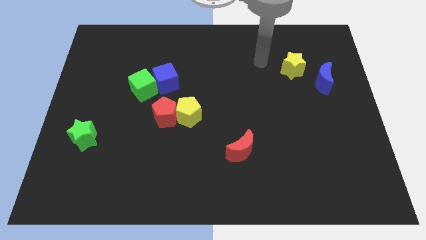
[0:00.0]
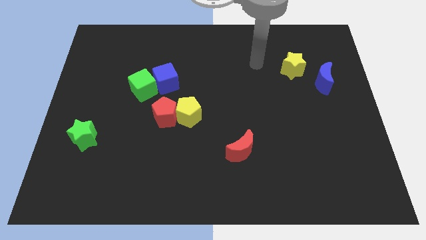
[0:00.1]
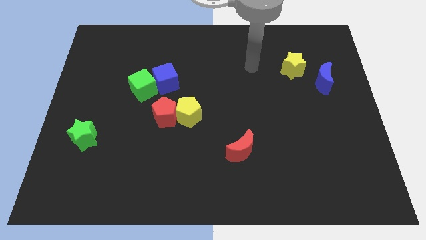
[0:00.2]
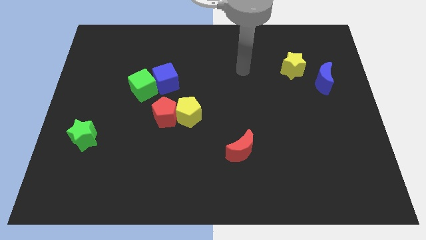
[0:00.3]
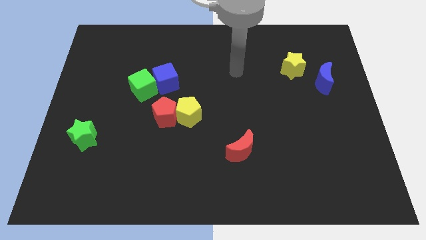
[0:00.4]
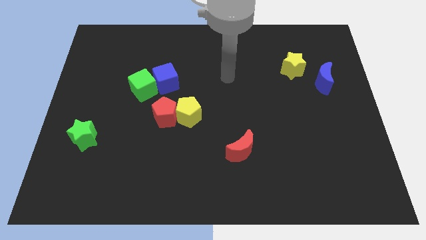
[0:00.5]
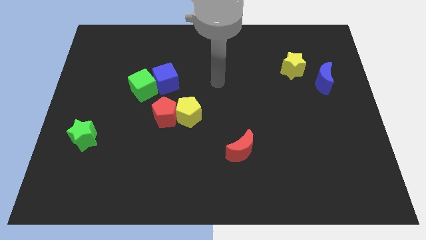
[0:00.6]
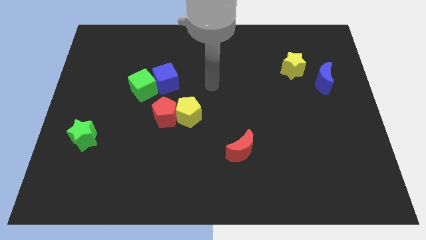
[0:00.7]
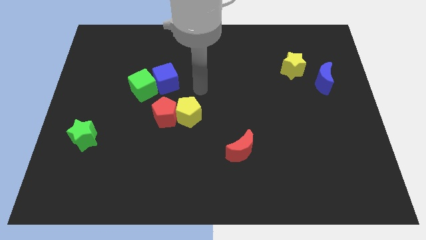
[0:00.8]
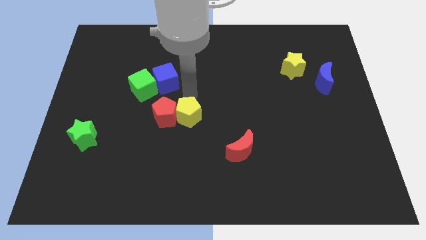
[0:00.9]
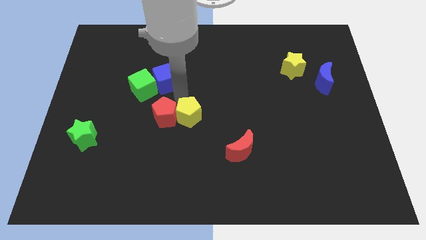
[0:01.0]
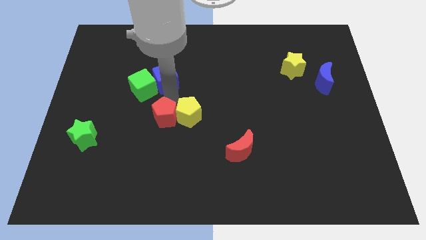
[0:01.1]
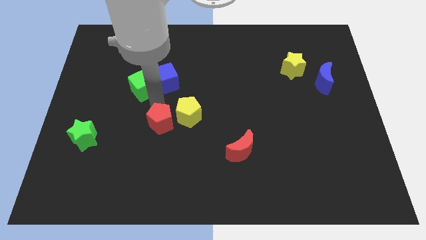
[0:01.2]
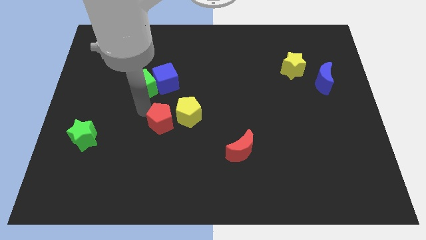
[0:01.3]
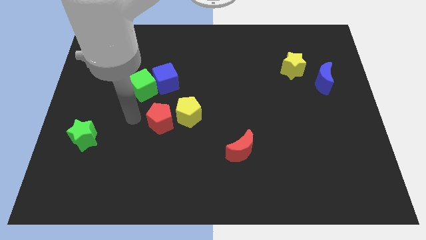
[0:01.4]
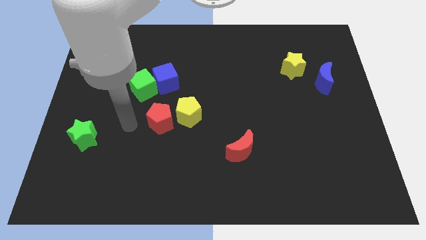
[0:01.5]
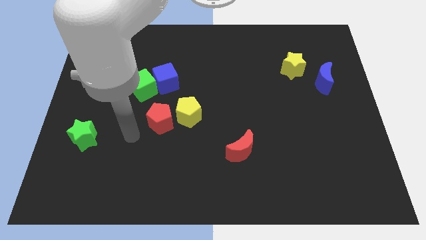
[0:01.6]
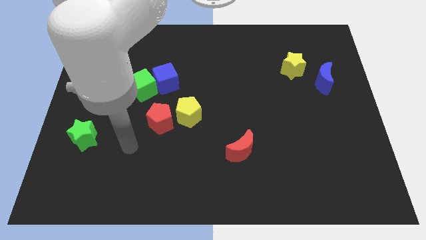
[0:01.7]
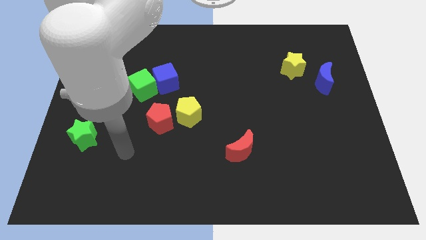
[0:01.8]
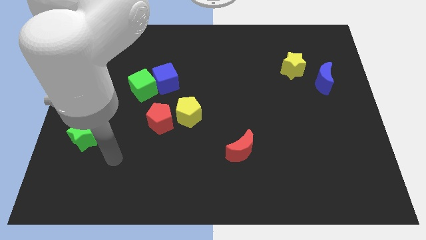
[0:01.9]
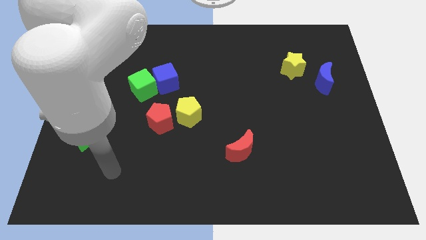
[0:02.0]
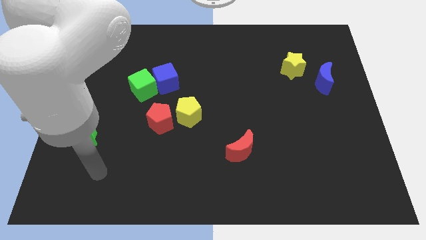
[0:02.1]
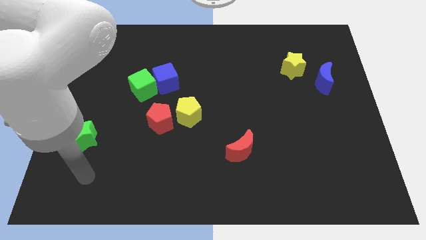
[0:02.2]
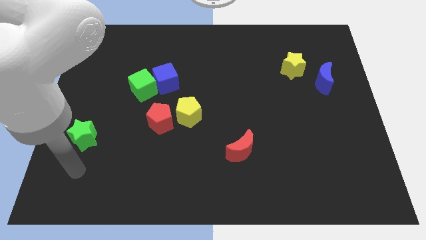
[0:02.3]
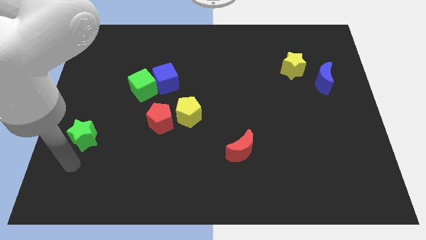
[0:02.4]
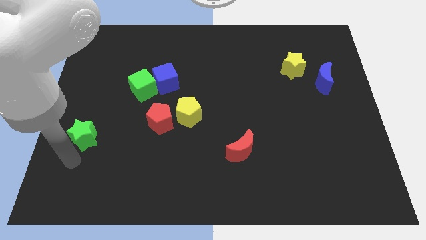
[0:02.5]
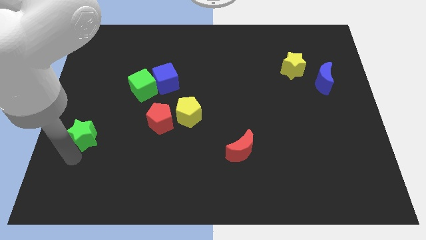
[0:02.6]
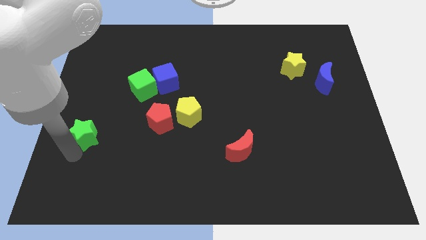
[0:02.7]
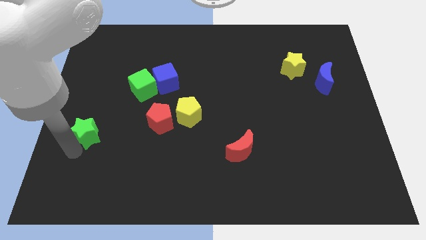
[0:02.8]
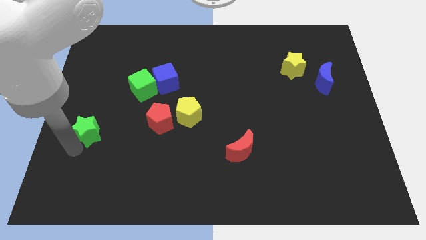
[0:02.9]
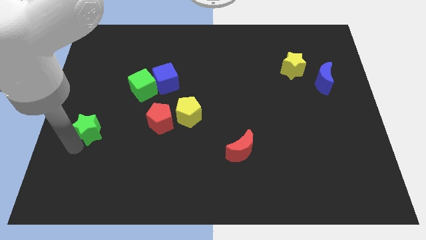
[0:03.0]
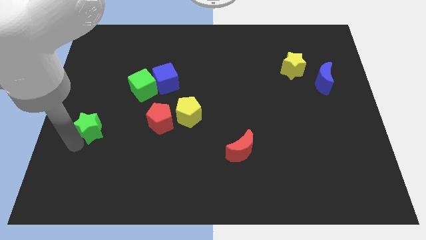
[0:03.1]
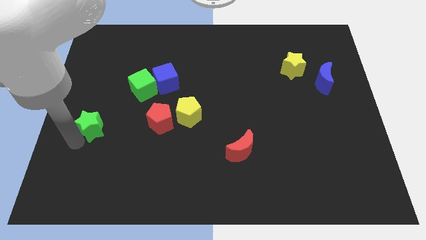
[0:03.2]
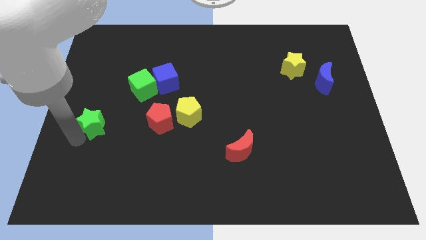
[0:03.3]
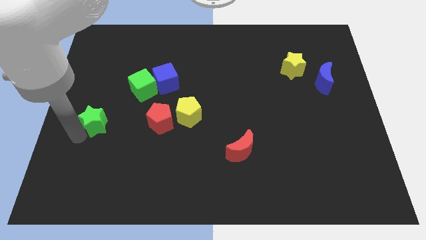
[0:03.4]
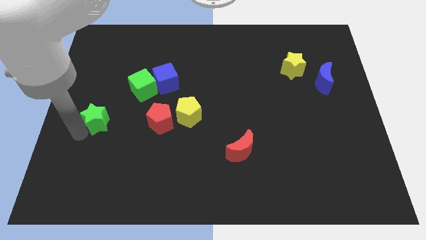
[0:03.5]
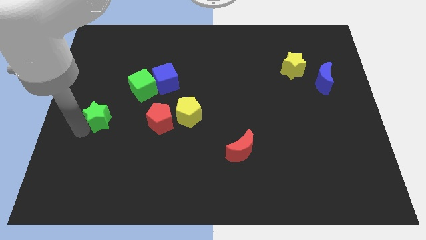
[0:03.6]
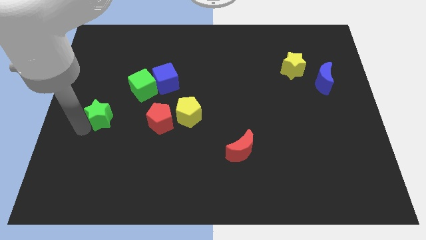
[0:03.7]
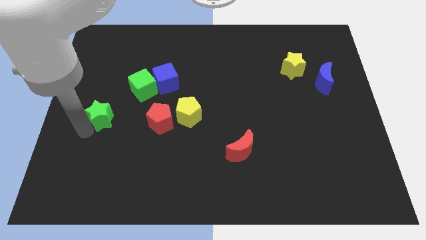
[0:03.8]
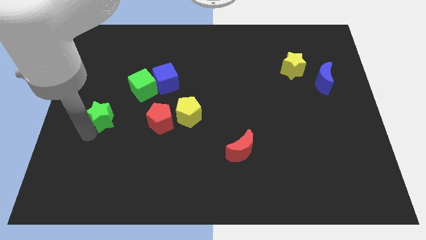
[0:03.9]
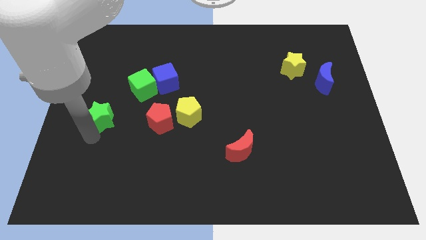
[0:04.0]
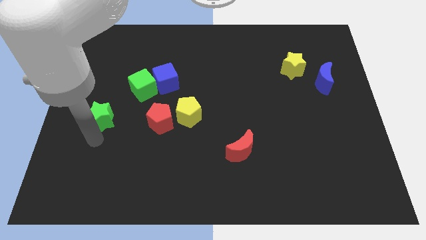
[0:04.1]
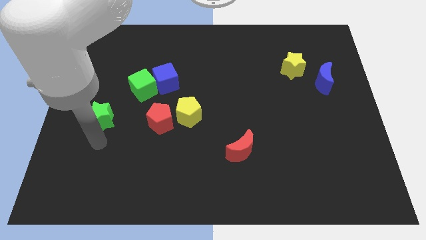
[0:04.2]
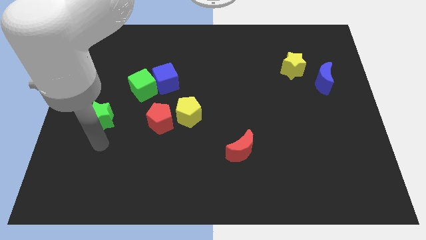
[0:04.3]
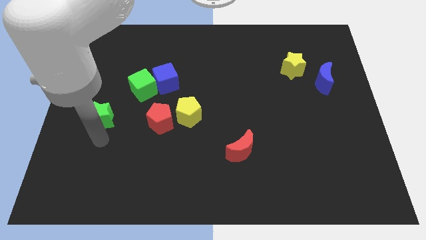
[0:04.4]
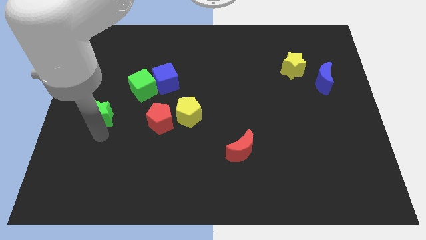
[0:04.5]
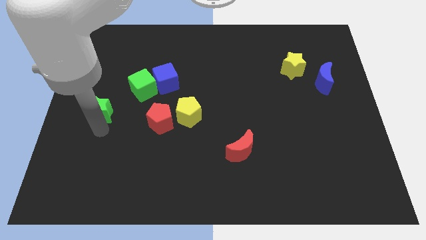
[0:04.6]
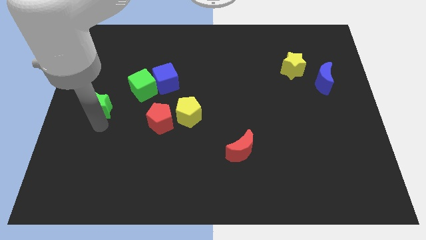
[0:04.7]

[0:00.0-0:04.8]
slightly push the green star up

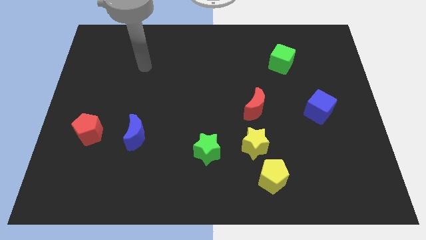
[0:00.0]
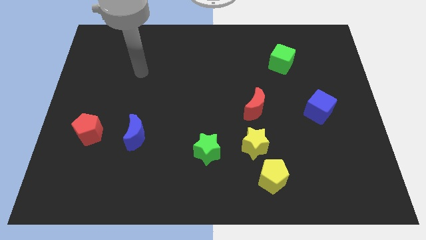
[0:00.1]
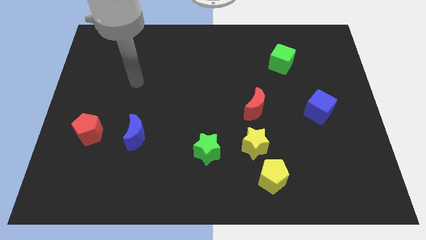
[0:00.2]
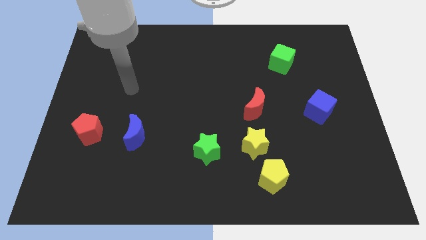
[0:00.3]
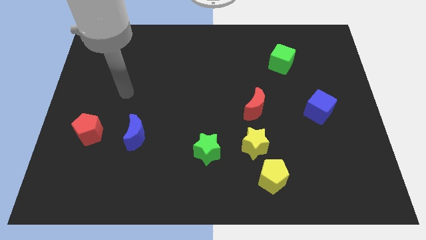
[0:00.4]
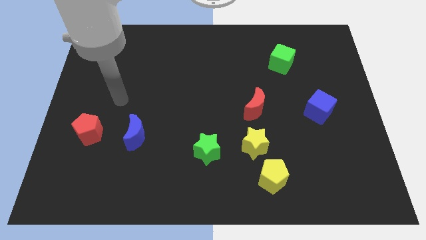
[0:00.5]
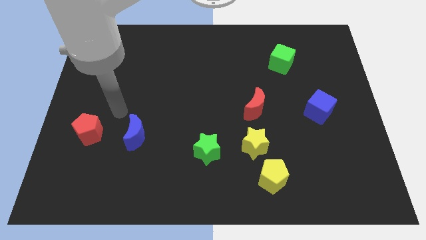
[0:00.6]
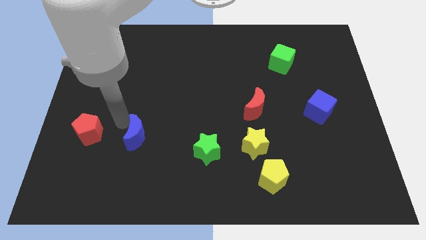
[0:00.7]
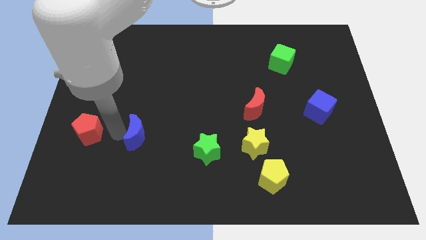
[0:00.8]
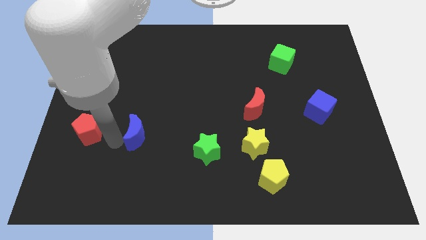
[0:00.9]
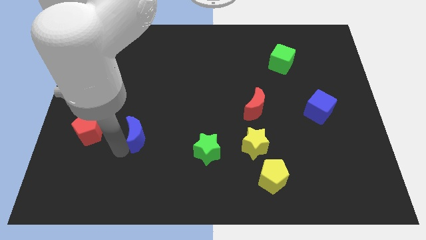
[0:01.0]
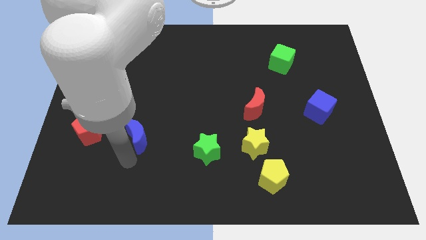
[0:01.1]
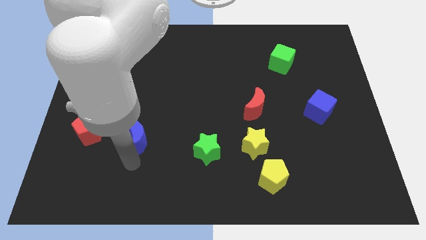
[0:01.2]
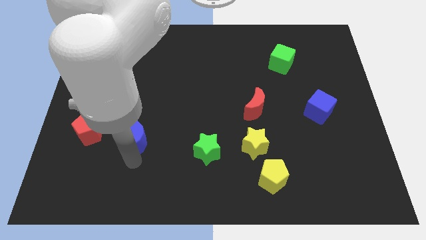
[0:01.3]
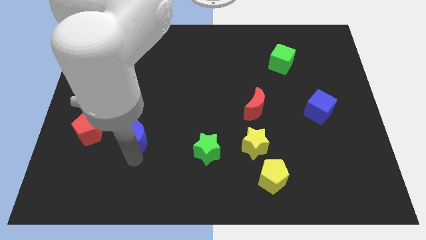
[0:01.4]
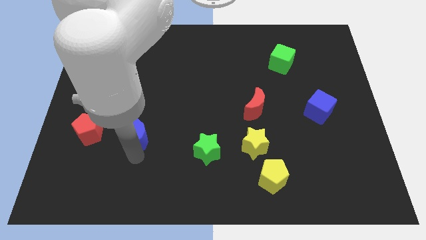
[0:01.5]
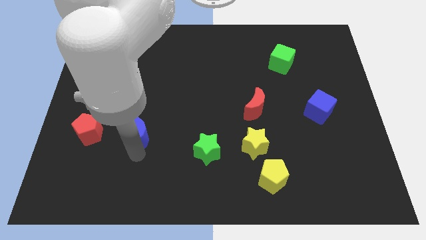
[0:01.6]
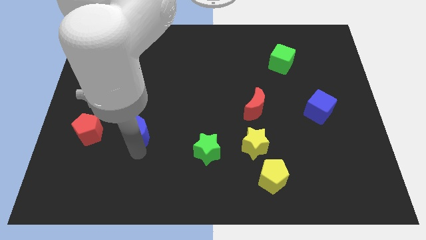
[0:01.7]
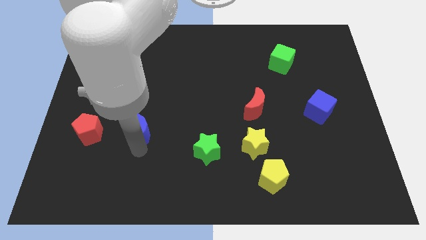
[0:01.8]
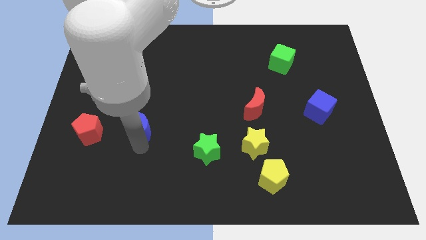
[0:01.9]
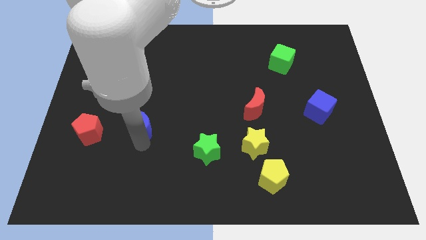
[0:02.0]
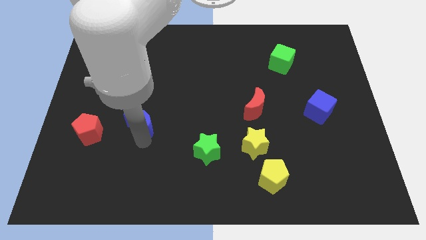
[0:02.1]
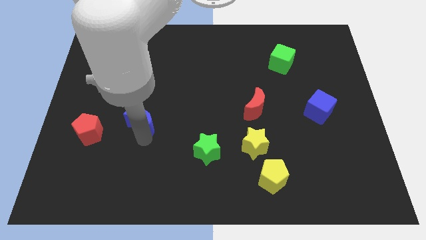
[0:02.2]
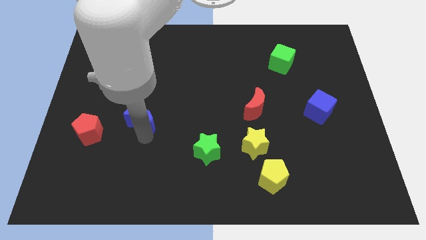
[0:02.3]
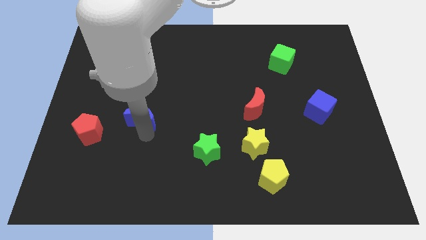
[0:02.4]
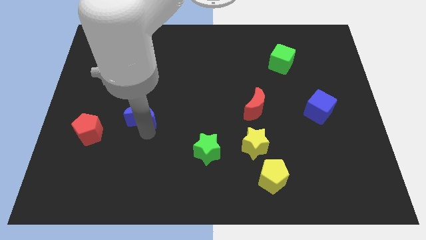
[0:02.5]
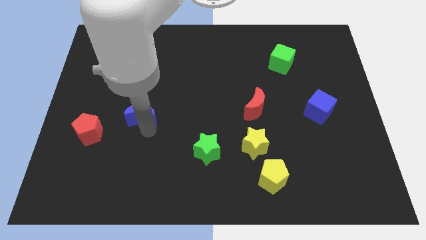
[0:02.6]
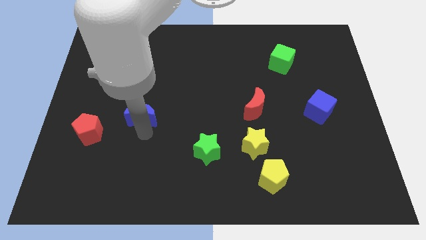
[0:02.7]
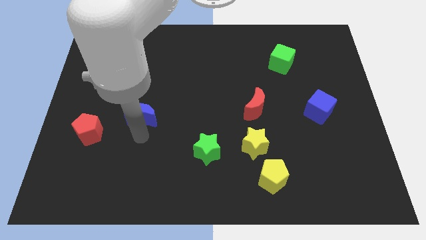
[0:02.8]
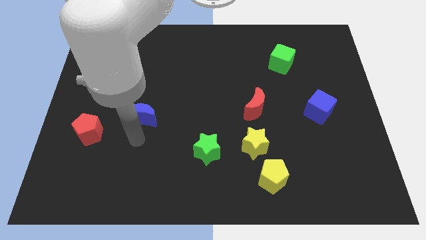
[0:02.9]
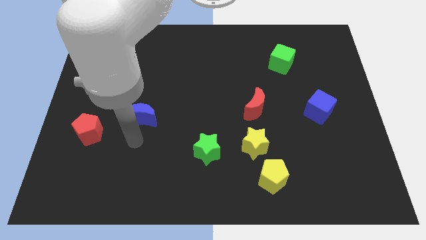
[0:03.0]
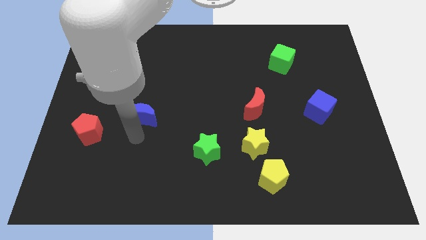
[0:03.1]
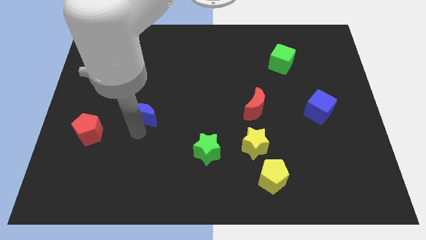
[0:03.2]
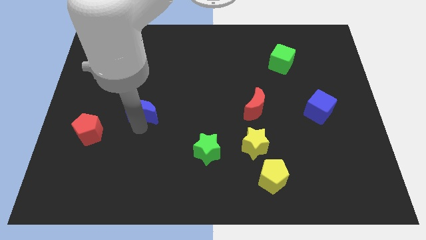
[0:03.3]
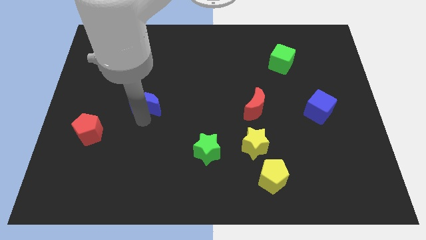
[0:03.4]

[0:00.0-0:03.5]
move the blue moon somewhat upwards
